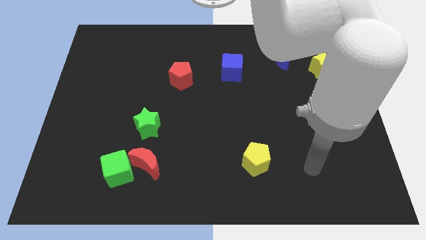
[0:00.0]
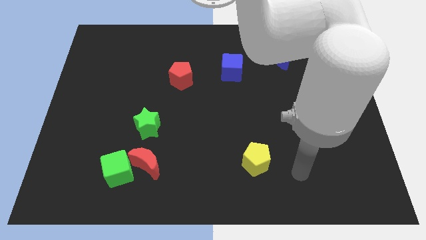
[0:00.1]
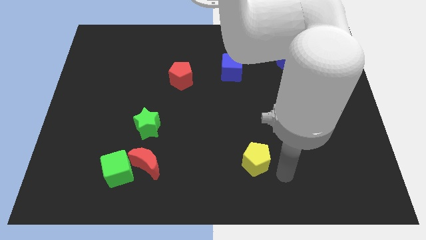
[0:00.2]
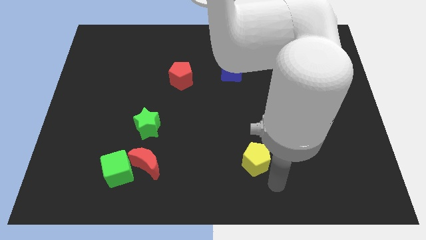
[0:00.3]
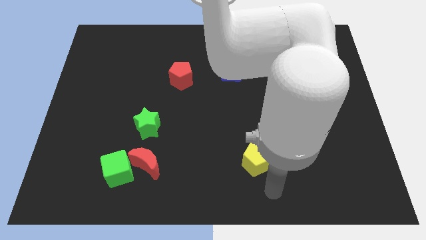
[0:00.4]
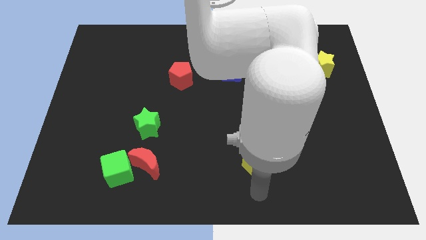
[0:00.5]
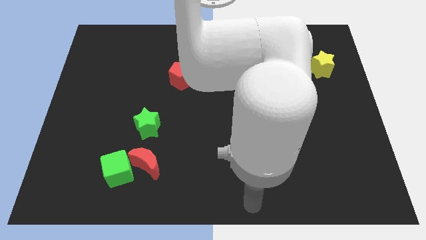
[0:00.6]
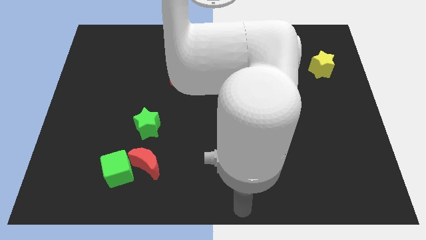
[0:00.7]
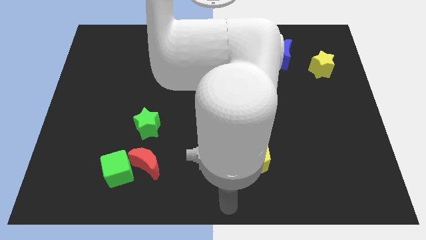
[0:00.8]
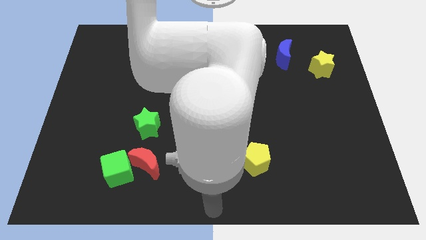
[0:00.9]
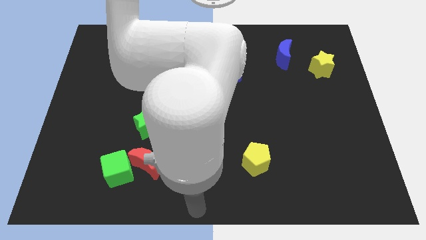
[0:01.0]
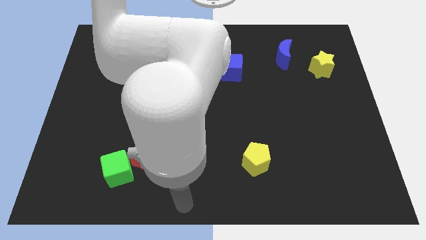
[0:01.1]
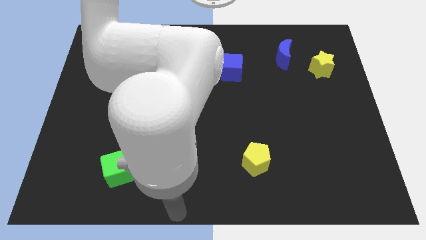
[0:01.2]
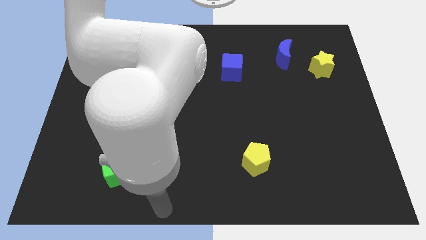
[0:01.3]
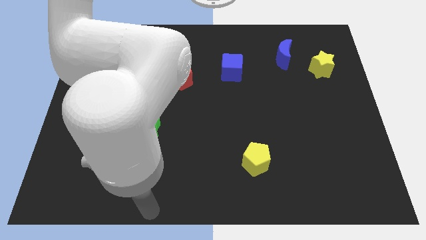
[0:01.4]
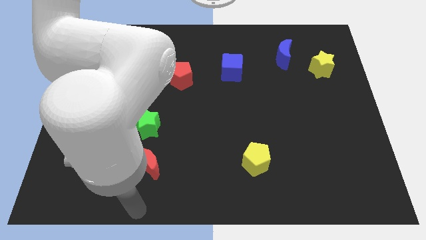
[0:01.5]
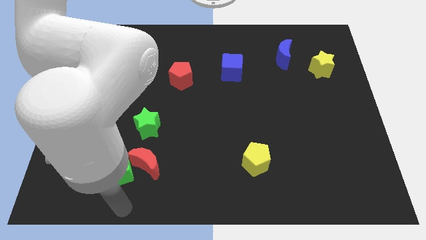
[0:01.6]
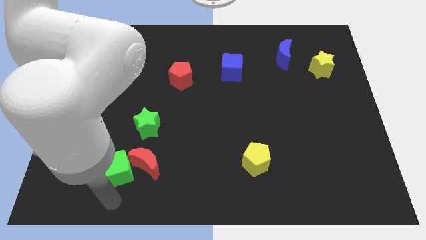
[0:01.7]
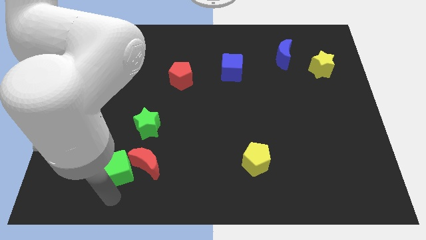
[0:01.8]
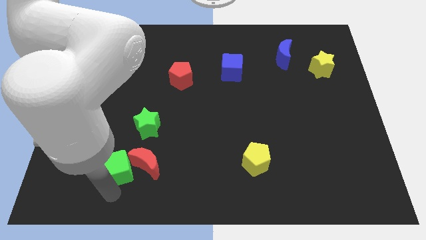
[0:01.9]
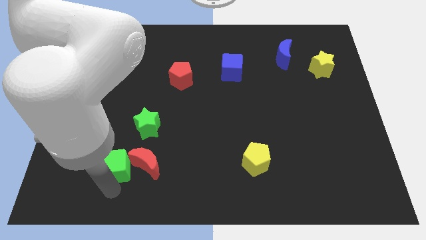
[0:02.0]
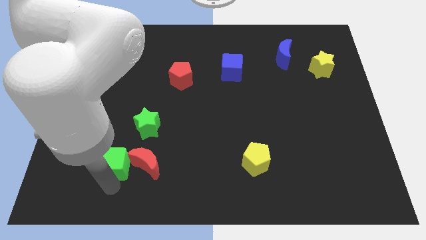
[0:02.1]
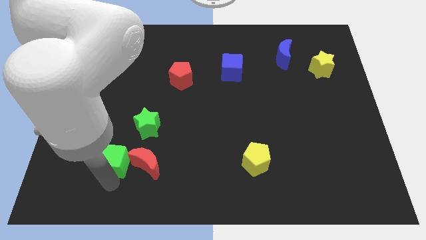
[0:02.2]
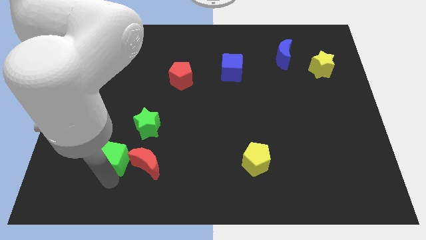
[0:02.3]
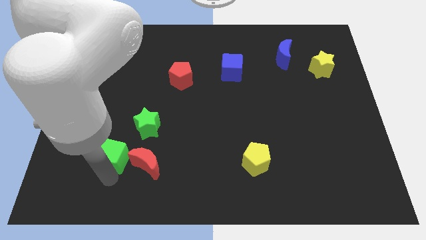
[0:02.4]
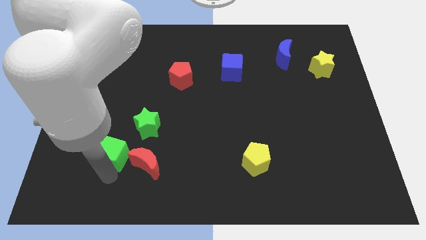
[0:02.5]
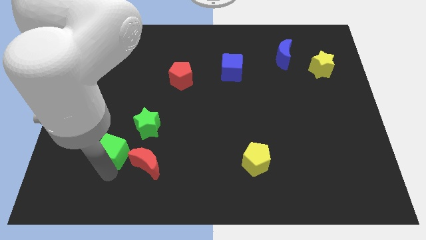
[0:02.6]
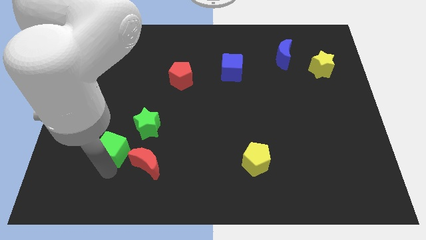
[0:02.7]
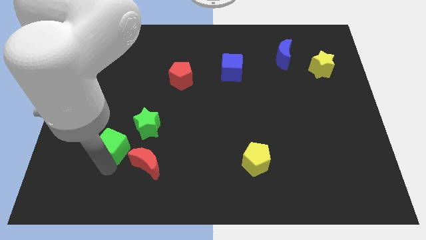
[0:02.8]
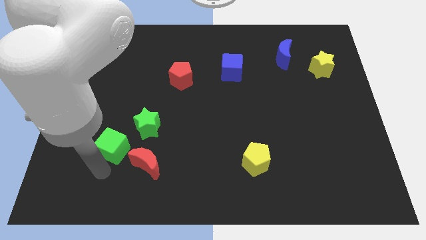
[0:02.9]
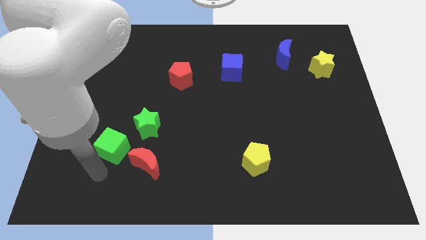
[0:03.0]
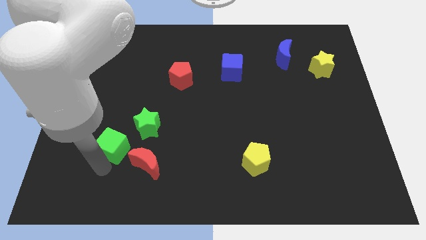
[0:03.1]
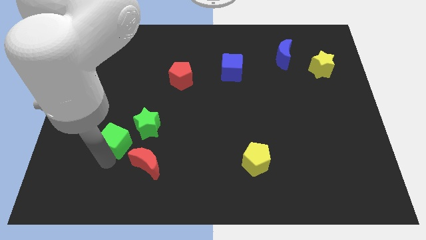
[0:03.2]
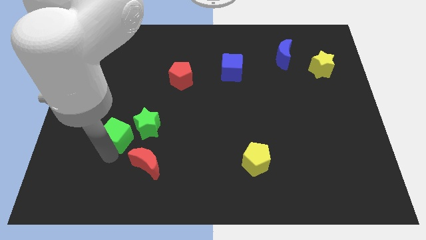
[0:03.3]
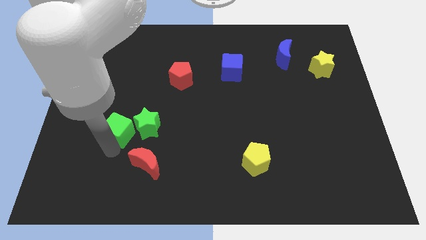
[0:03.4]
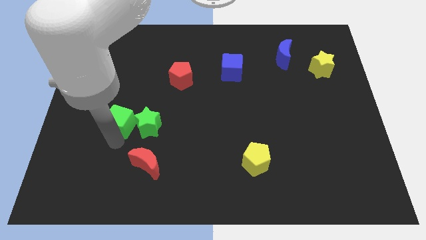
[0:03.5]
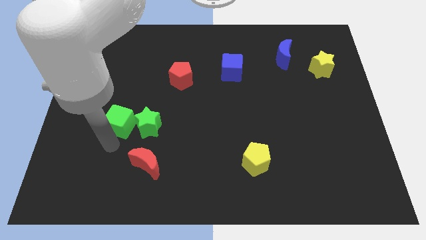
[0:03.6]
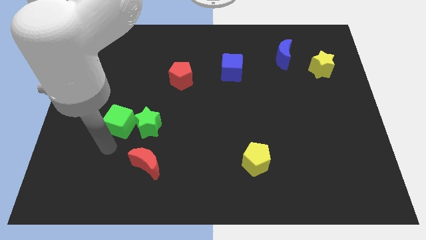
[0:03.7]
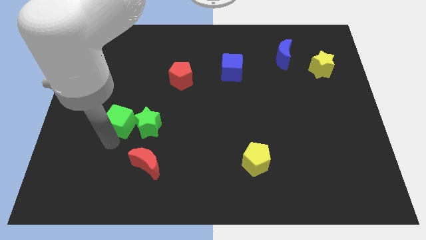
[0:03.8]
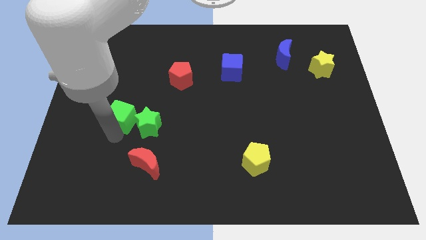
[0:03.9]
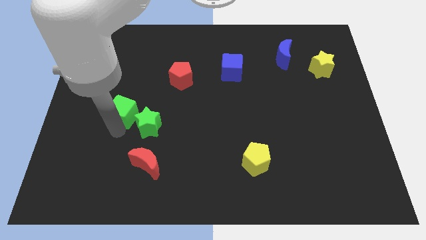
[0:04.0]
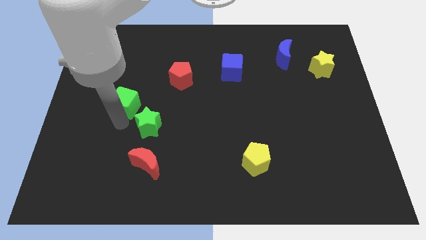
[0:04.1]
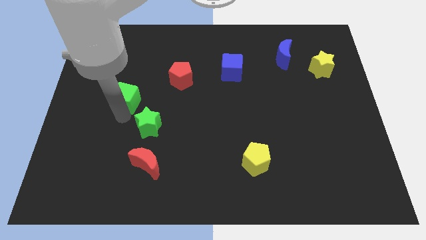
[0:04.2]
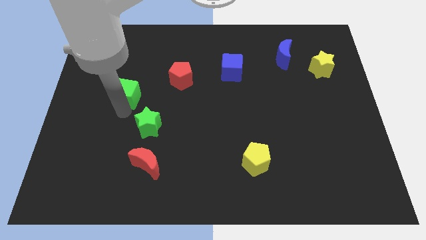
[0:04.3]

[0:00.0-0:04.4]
push the green cube up

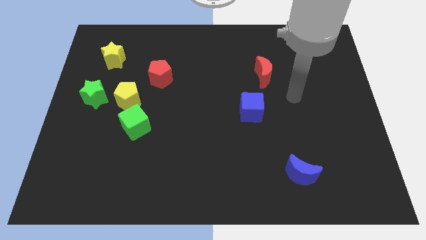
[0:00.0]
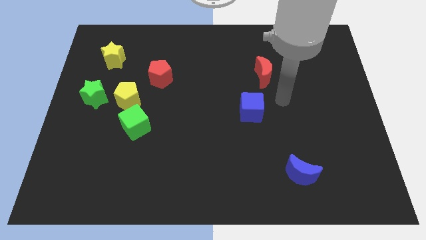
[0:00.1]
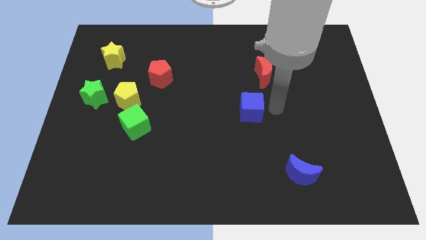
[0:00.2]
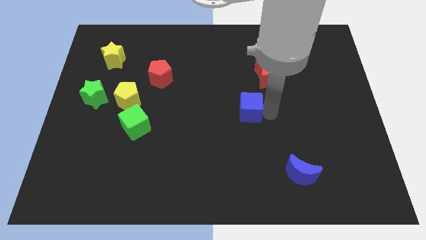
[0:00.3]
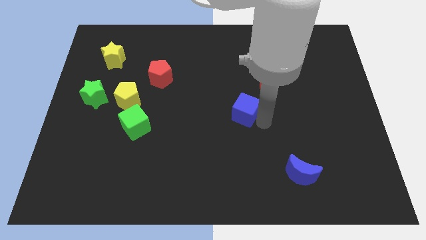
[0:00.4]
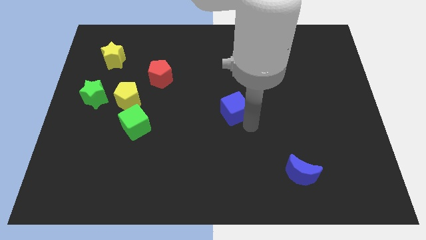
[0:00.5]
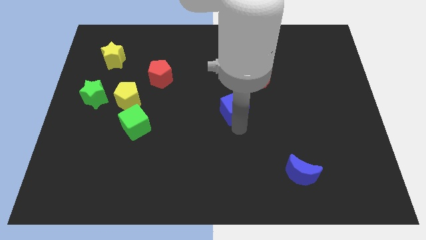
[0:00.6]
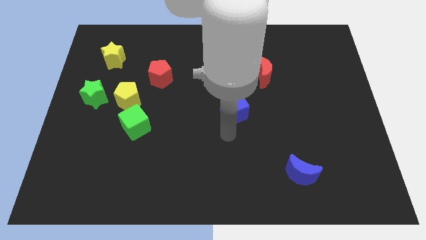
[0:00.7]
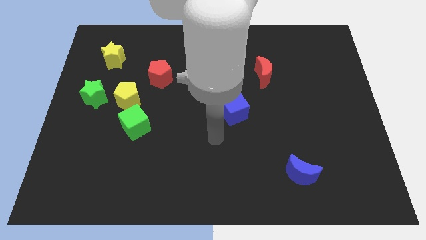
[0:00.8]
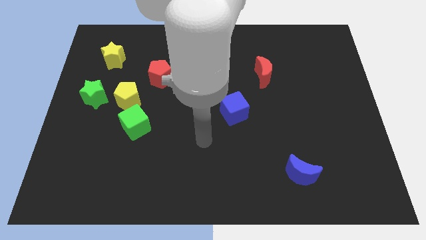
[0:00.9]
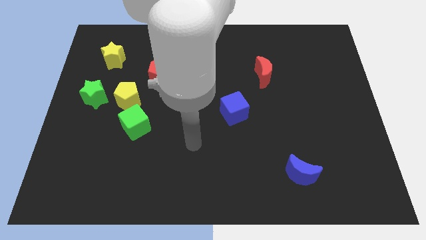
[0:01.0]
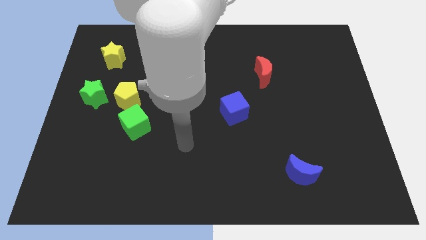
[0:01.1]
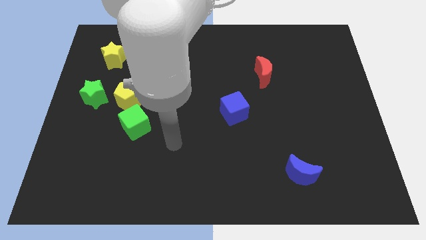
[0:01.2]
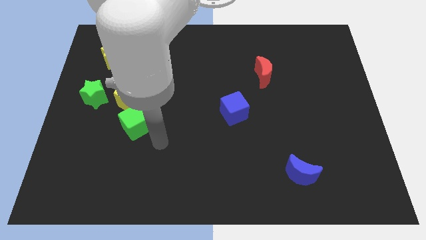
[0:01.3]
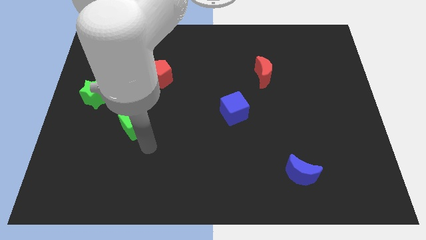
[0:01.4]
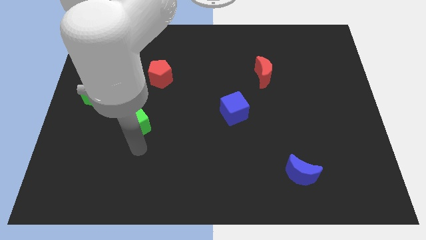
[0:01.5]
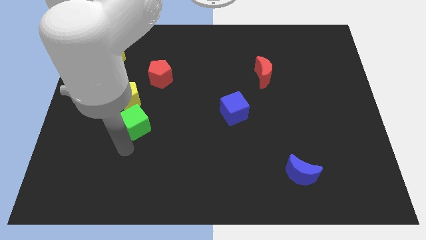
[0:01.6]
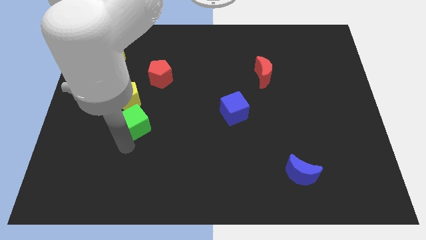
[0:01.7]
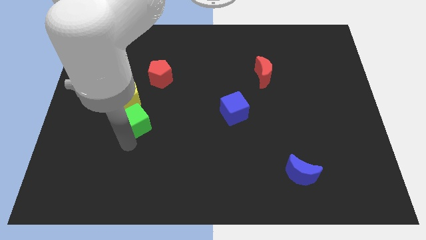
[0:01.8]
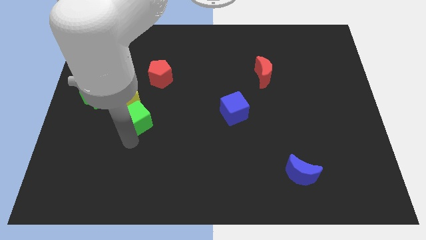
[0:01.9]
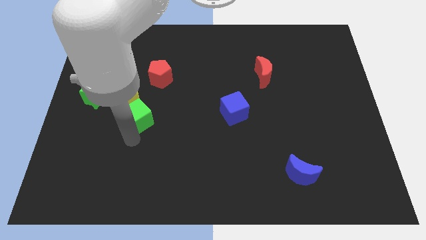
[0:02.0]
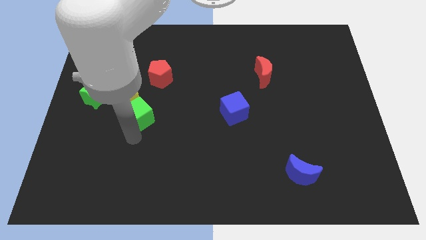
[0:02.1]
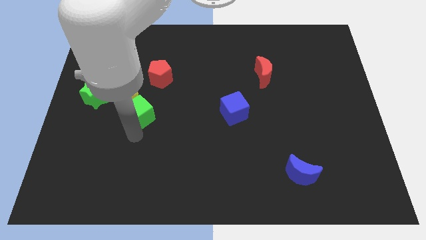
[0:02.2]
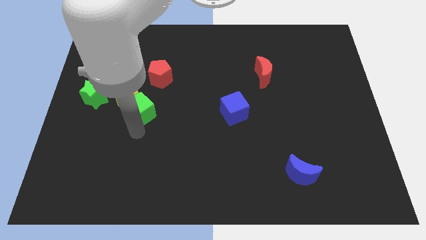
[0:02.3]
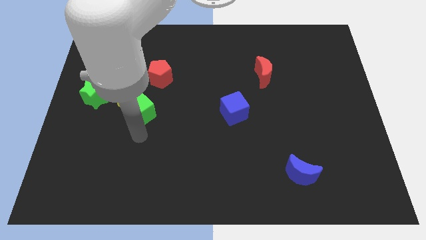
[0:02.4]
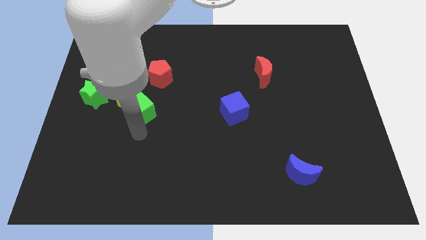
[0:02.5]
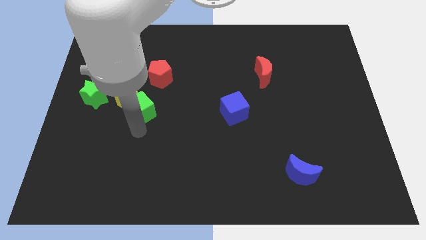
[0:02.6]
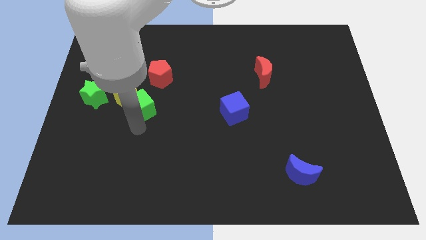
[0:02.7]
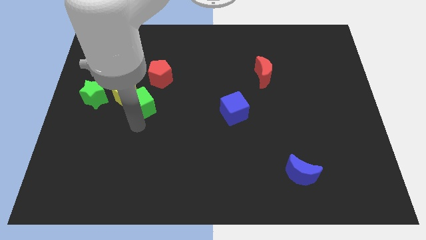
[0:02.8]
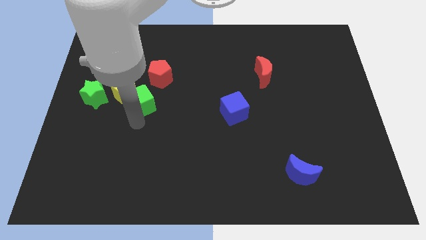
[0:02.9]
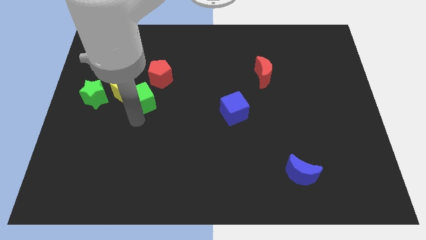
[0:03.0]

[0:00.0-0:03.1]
slightly push the green cube upwards

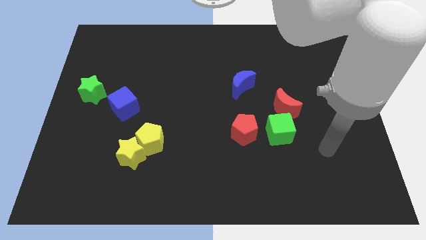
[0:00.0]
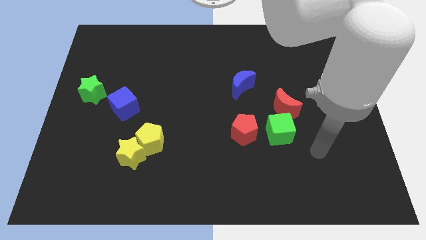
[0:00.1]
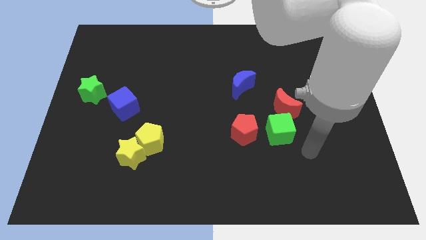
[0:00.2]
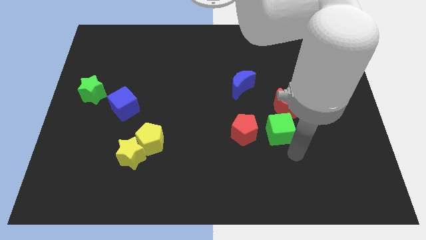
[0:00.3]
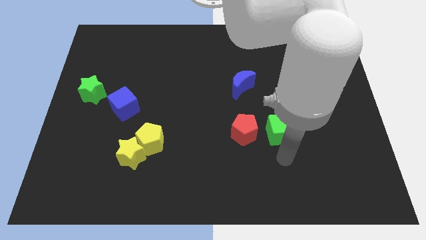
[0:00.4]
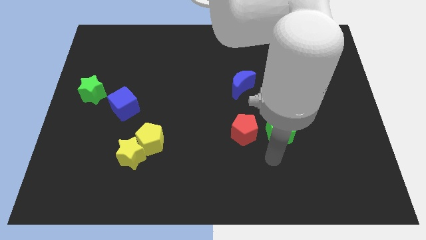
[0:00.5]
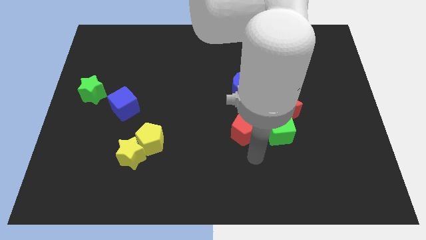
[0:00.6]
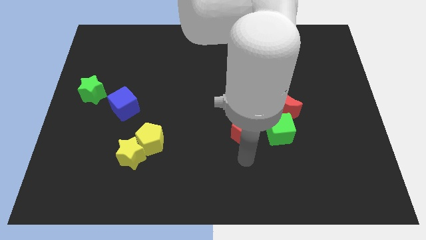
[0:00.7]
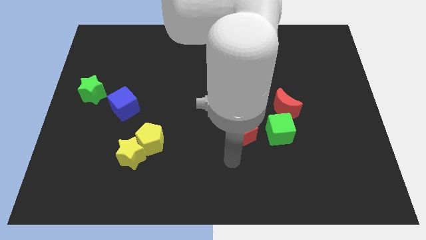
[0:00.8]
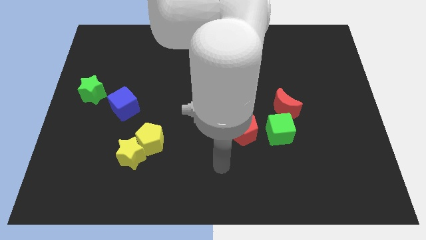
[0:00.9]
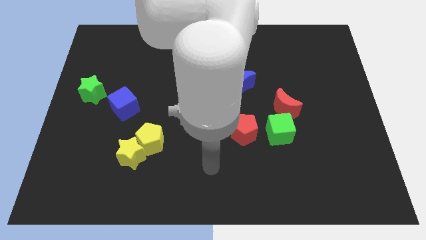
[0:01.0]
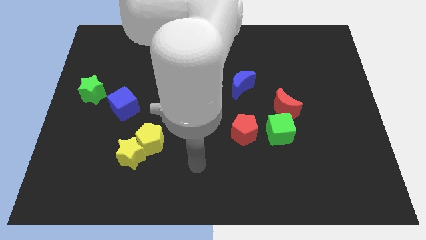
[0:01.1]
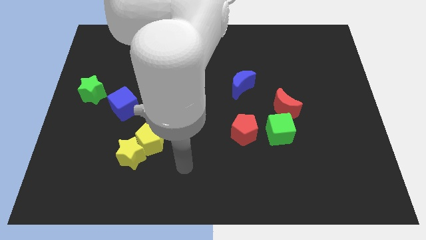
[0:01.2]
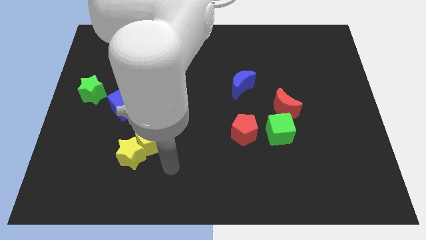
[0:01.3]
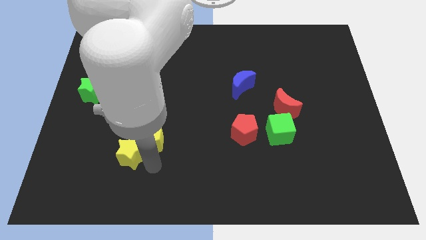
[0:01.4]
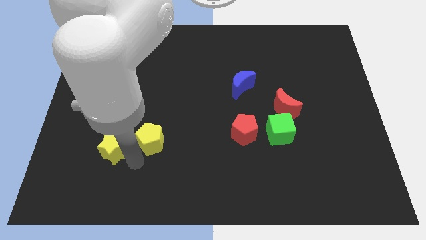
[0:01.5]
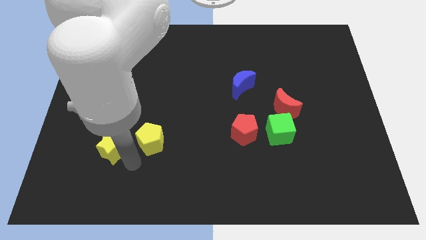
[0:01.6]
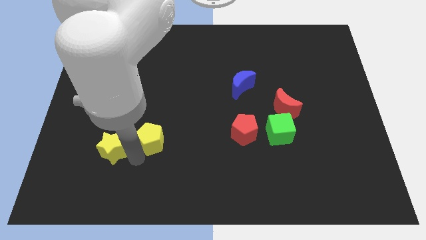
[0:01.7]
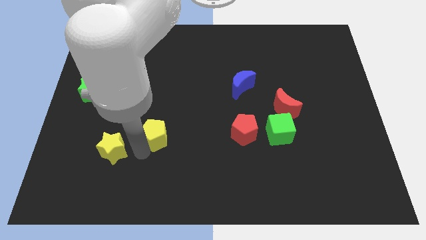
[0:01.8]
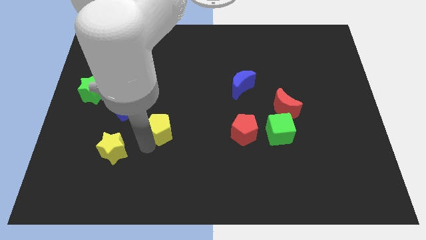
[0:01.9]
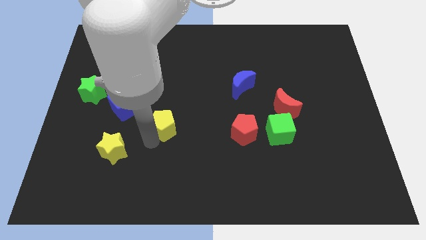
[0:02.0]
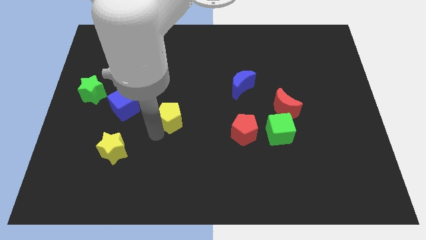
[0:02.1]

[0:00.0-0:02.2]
move the yellow pentagon slightly upwards and then to the right
